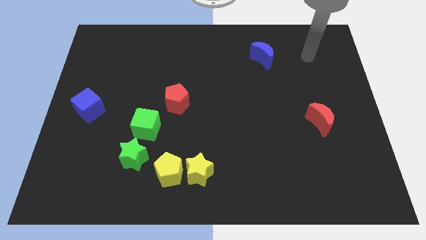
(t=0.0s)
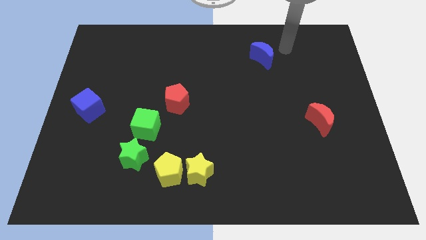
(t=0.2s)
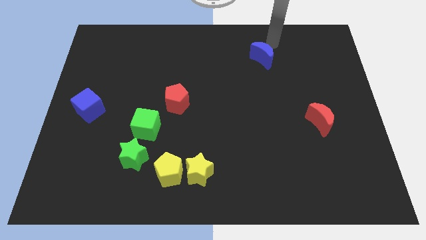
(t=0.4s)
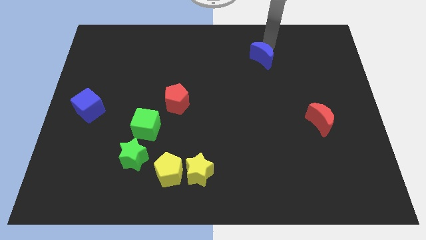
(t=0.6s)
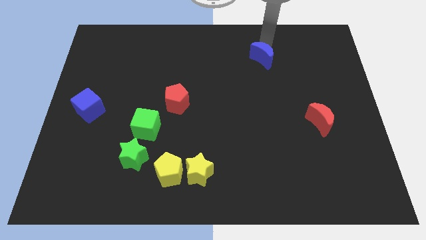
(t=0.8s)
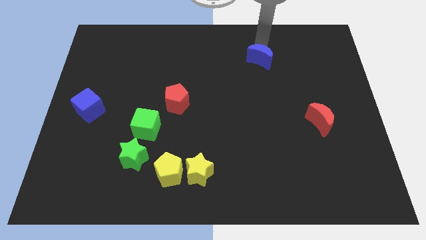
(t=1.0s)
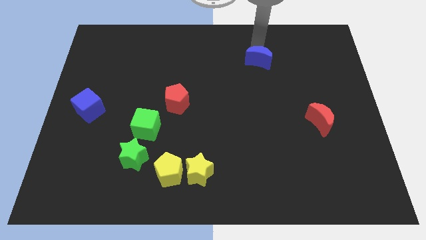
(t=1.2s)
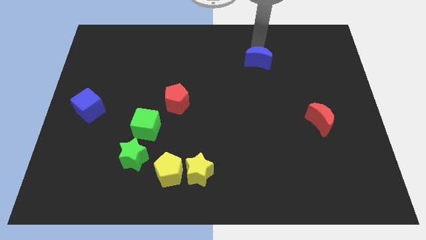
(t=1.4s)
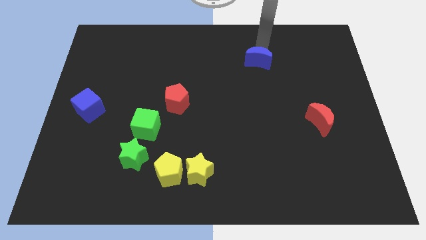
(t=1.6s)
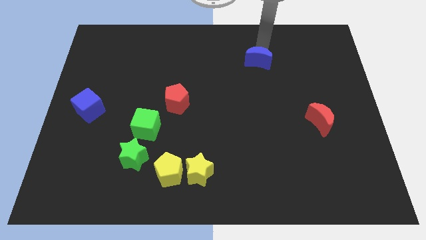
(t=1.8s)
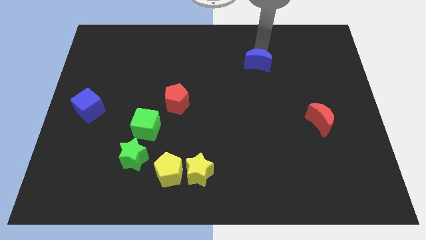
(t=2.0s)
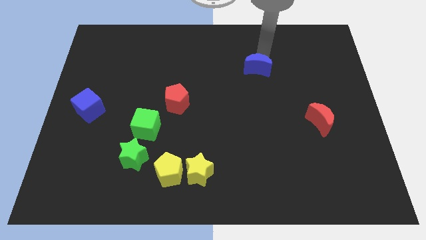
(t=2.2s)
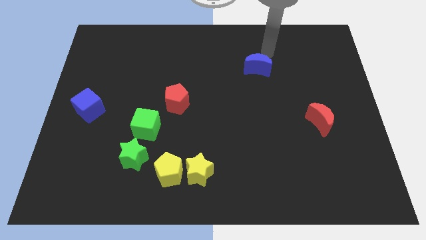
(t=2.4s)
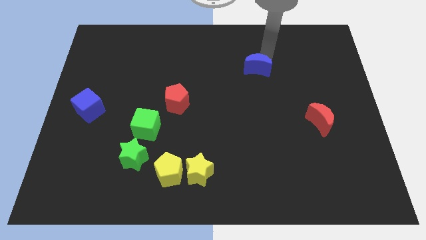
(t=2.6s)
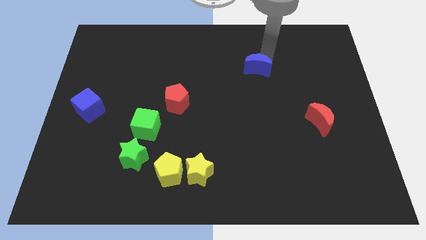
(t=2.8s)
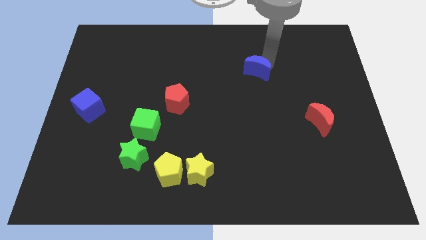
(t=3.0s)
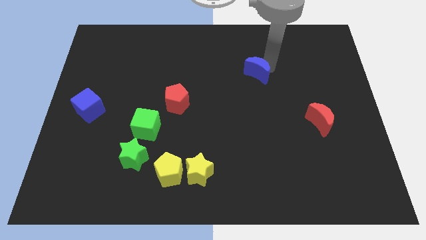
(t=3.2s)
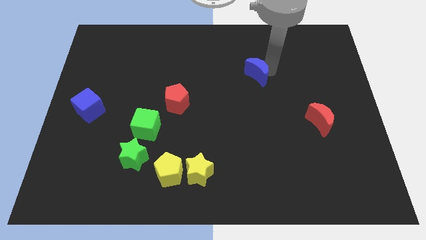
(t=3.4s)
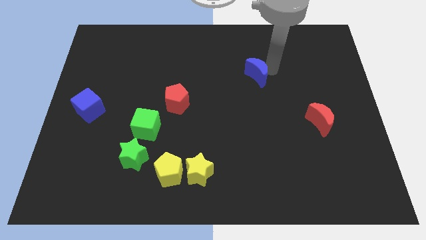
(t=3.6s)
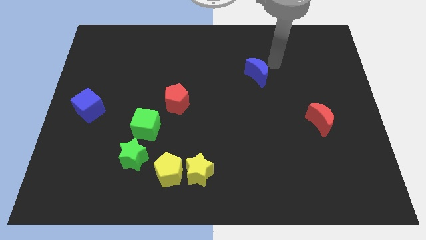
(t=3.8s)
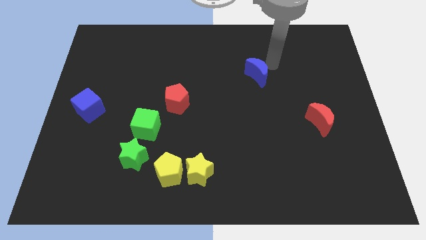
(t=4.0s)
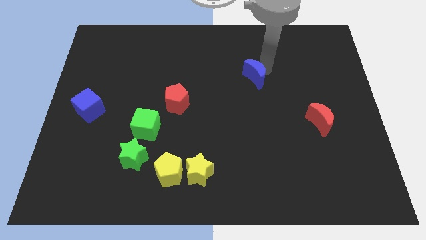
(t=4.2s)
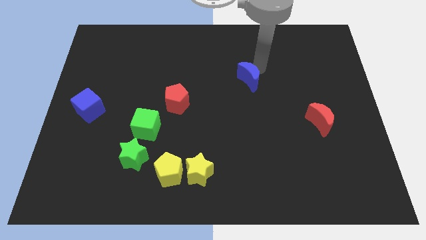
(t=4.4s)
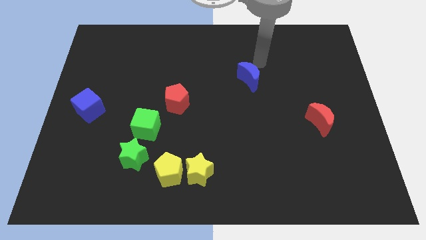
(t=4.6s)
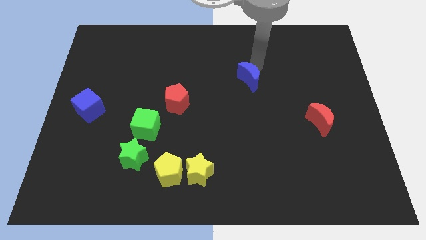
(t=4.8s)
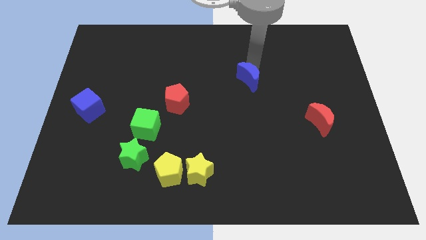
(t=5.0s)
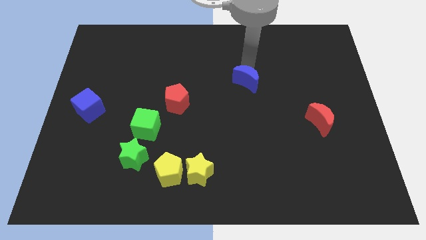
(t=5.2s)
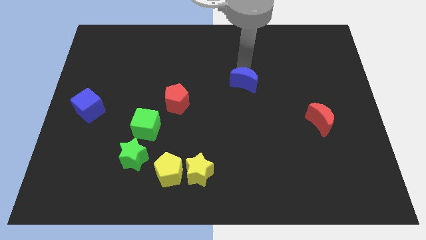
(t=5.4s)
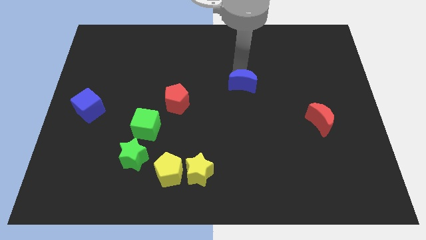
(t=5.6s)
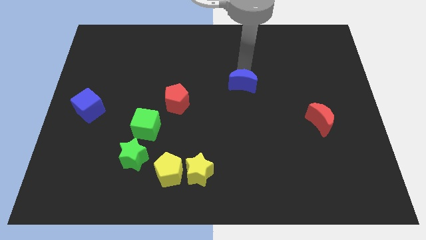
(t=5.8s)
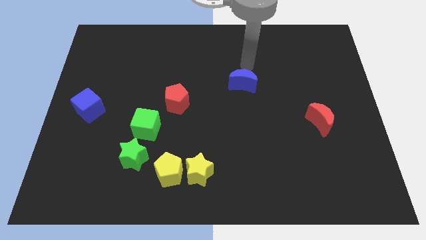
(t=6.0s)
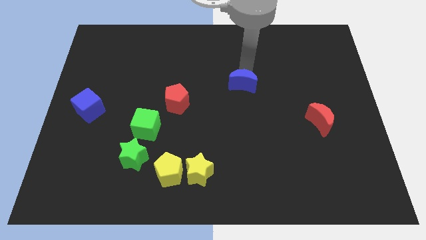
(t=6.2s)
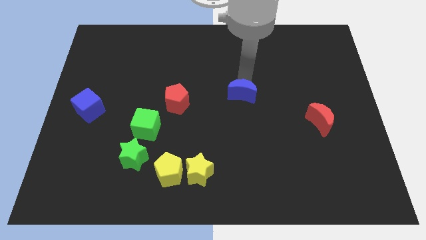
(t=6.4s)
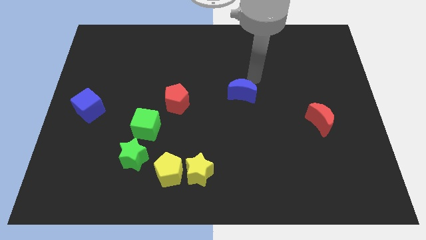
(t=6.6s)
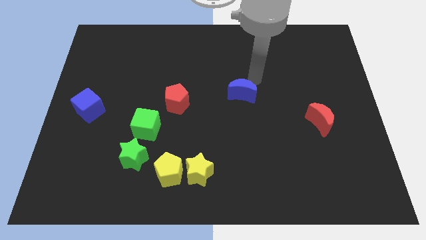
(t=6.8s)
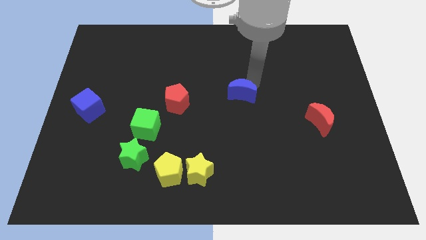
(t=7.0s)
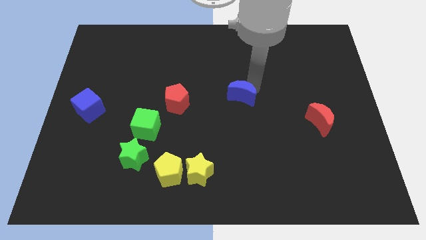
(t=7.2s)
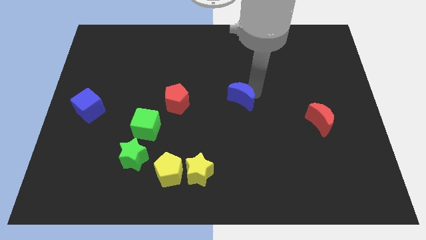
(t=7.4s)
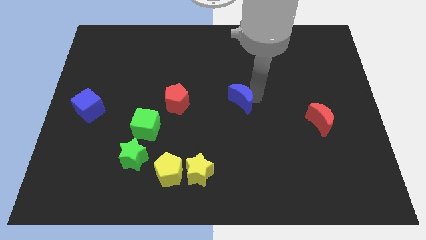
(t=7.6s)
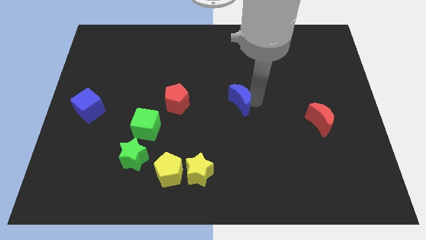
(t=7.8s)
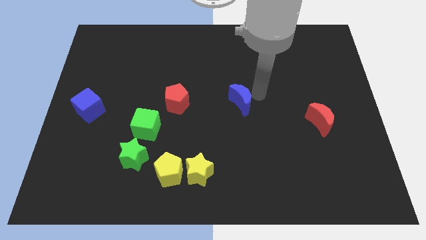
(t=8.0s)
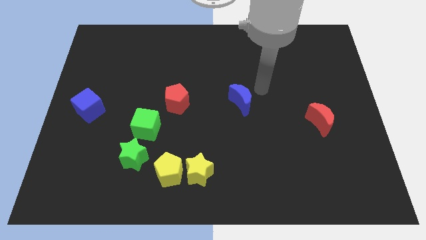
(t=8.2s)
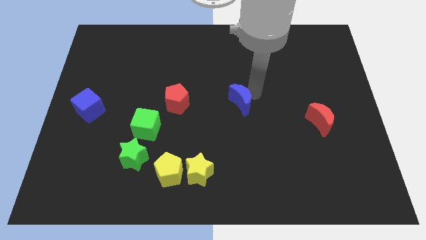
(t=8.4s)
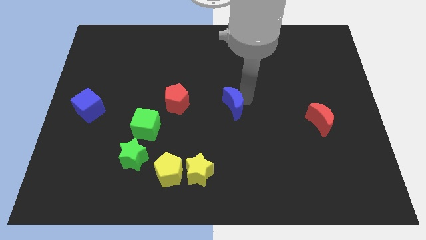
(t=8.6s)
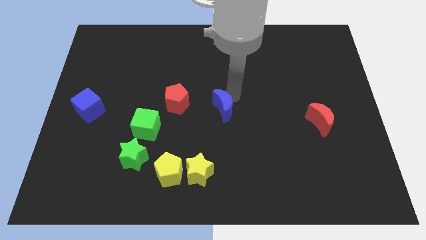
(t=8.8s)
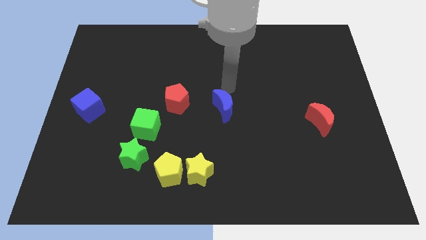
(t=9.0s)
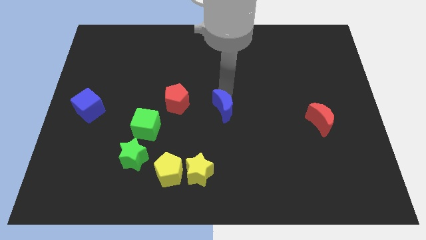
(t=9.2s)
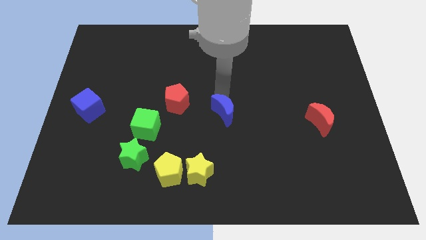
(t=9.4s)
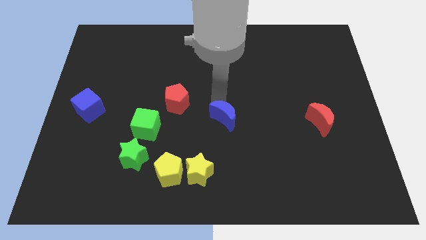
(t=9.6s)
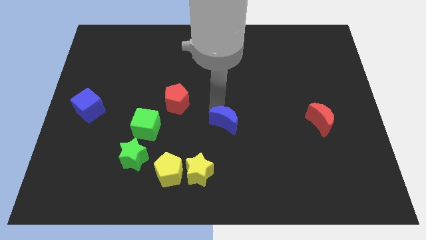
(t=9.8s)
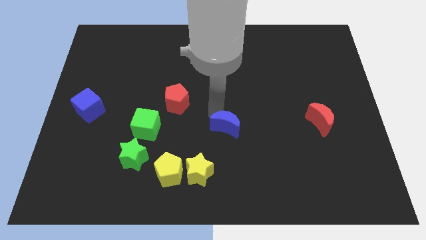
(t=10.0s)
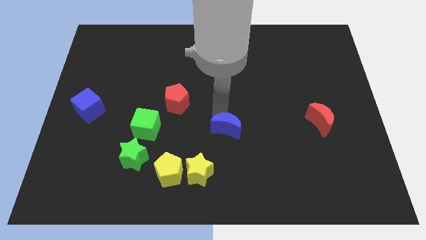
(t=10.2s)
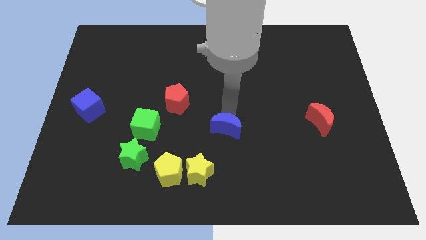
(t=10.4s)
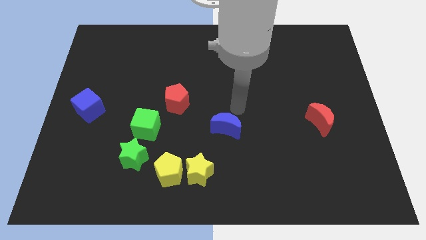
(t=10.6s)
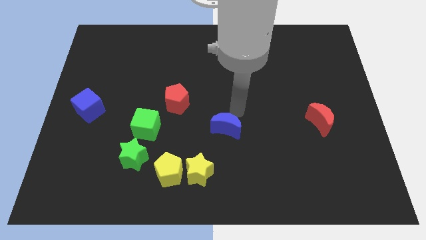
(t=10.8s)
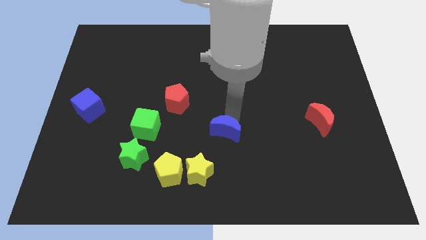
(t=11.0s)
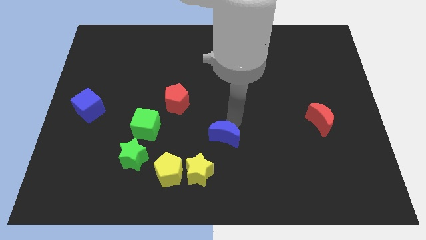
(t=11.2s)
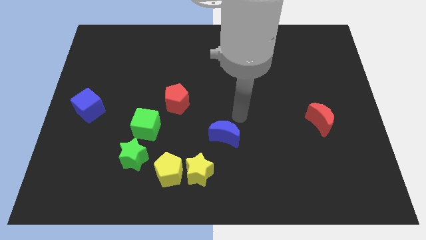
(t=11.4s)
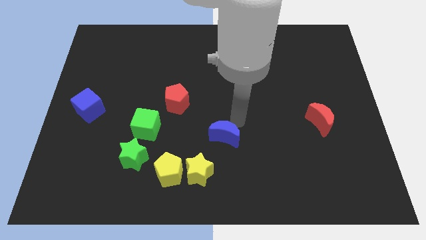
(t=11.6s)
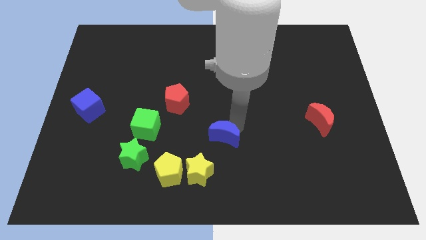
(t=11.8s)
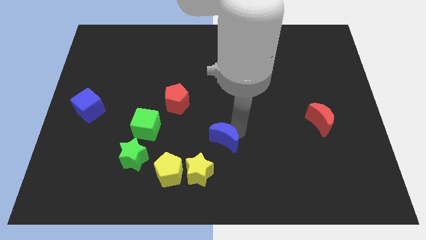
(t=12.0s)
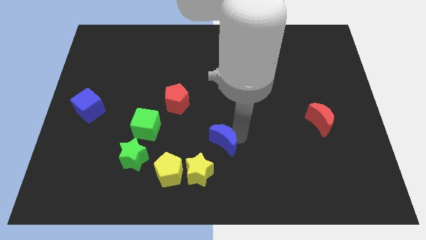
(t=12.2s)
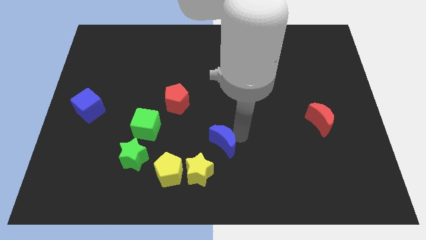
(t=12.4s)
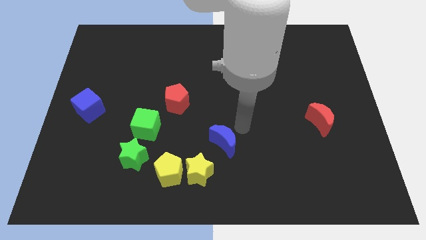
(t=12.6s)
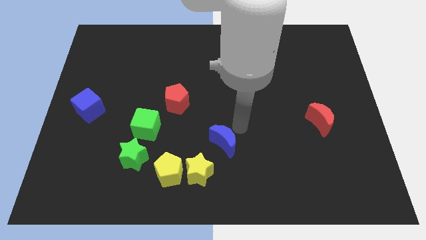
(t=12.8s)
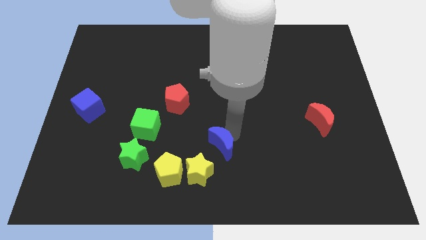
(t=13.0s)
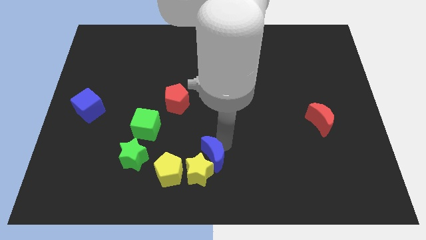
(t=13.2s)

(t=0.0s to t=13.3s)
move the blue moon close to the yellow star

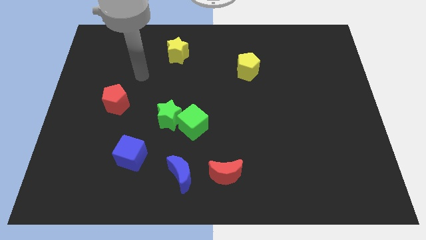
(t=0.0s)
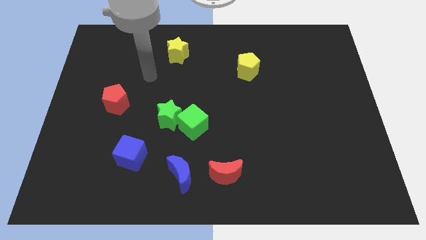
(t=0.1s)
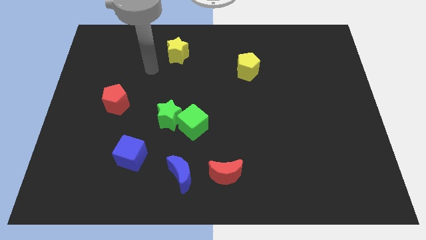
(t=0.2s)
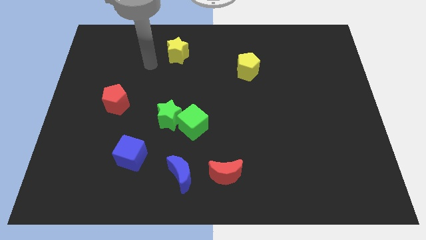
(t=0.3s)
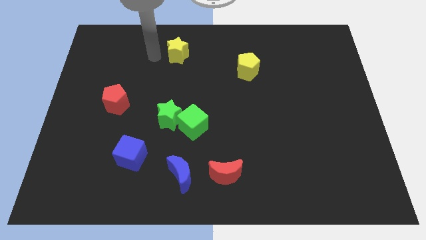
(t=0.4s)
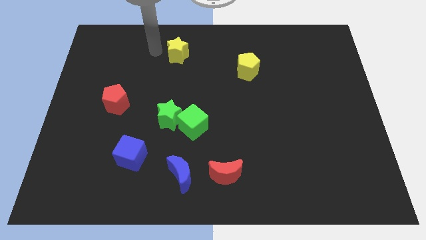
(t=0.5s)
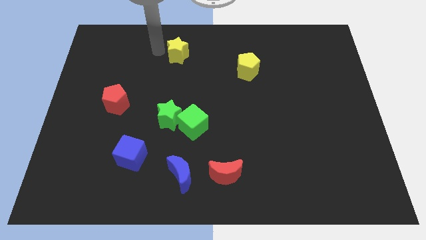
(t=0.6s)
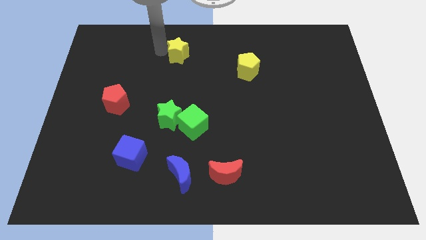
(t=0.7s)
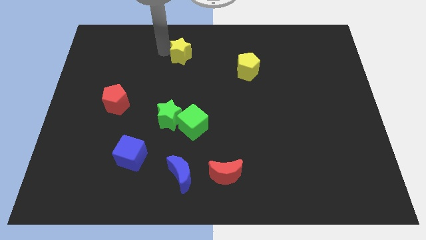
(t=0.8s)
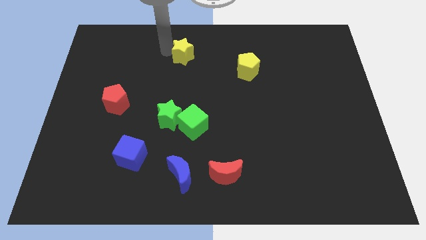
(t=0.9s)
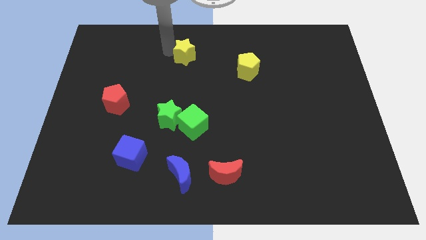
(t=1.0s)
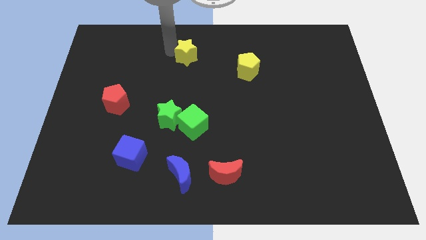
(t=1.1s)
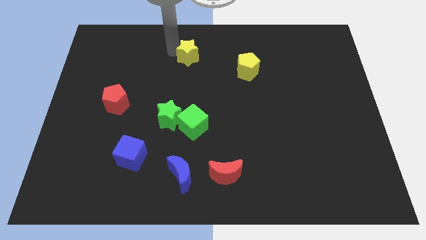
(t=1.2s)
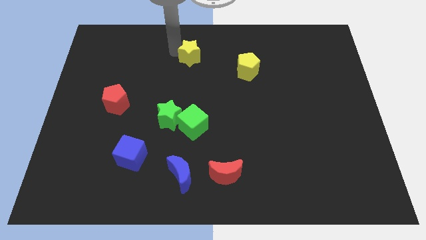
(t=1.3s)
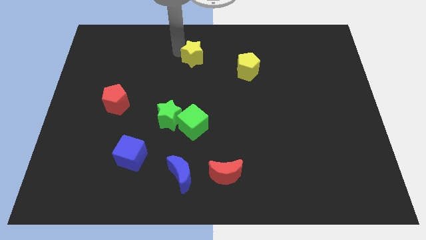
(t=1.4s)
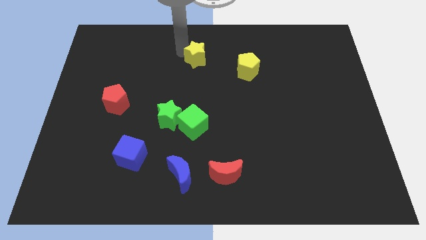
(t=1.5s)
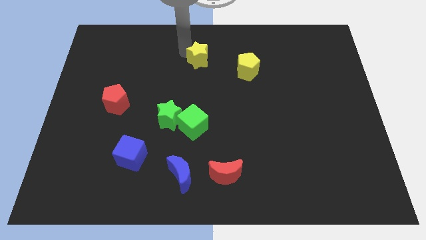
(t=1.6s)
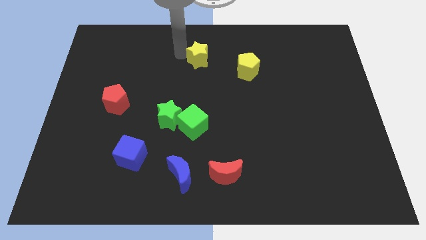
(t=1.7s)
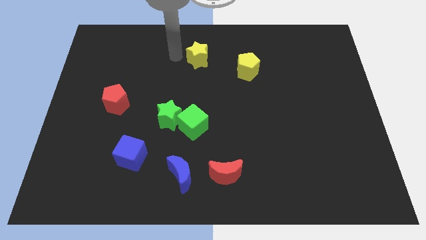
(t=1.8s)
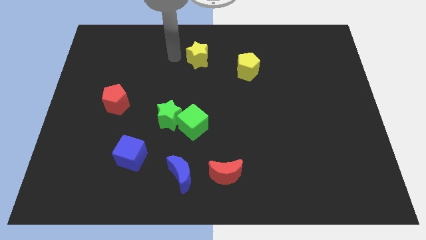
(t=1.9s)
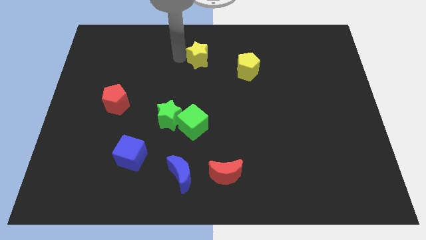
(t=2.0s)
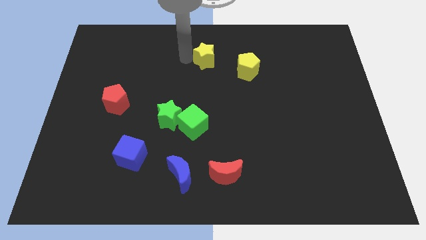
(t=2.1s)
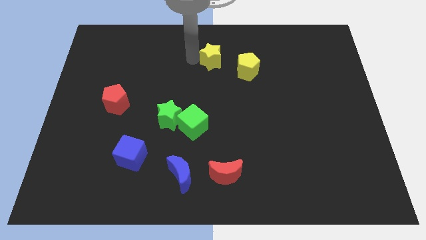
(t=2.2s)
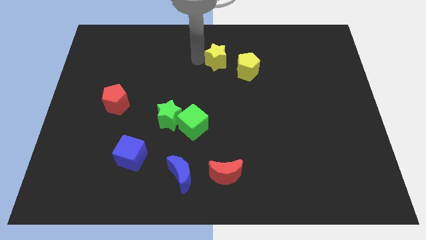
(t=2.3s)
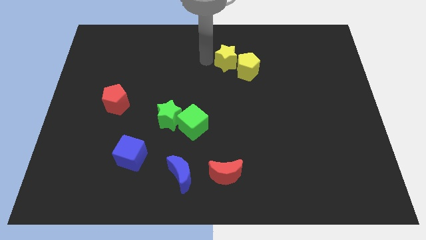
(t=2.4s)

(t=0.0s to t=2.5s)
slide the yellow star close to the yellow pentagon
